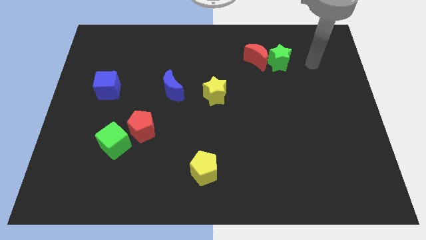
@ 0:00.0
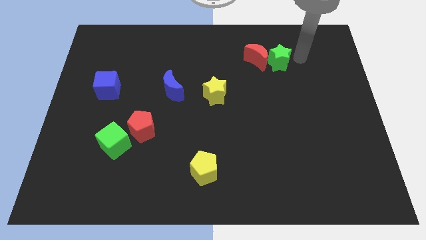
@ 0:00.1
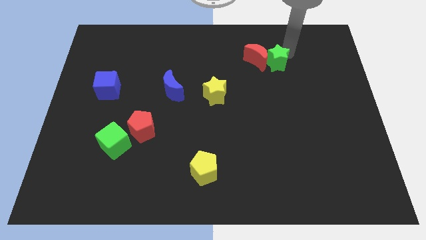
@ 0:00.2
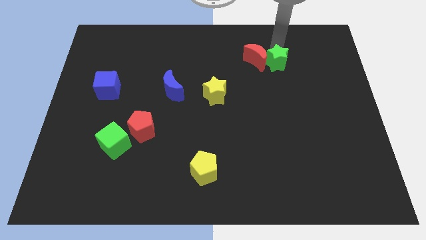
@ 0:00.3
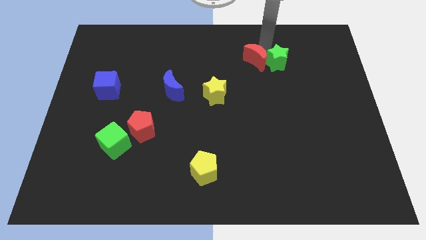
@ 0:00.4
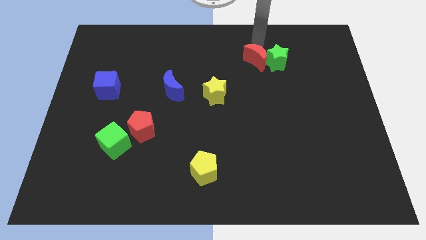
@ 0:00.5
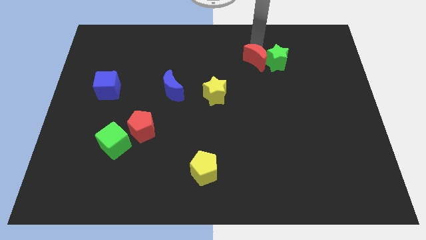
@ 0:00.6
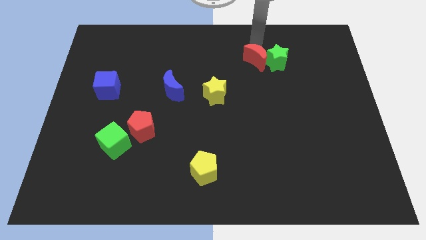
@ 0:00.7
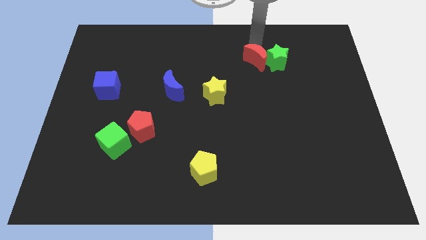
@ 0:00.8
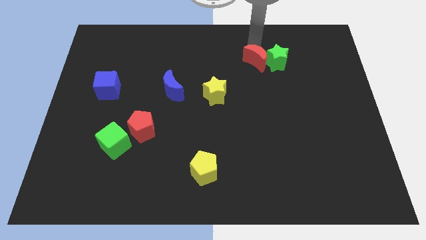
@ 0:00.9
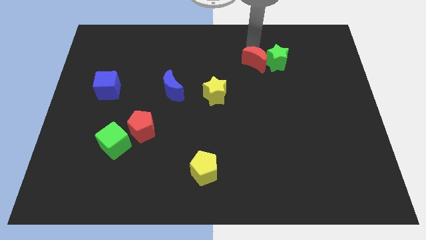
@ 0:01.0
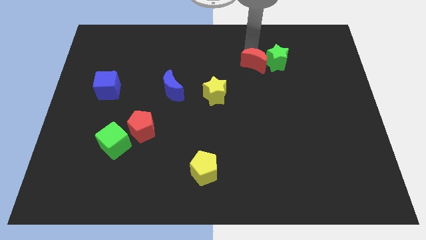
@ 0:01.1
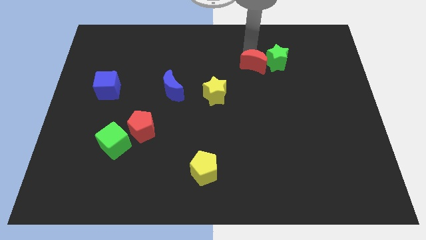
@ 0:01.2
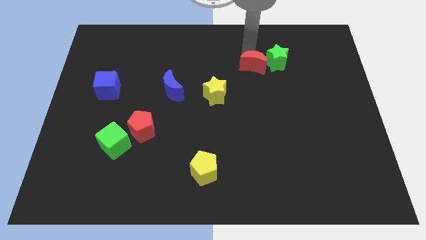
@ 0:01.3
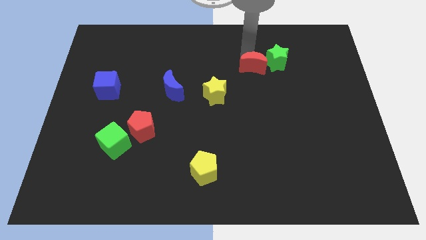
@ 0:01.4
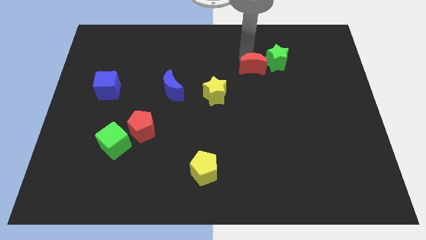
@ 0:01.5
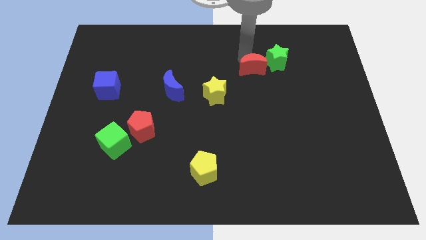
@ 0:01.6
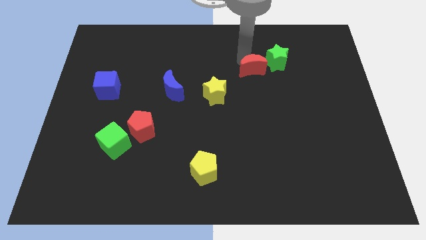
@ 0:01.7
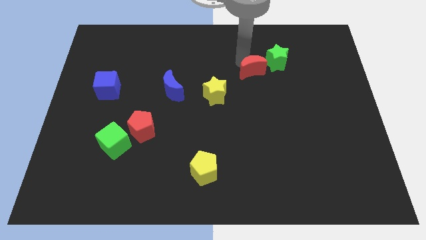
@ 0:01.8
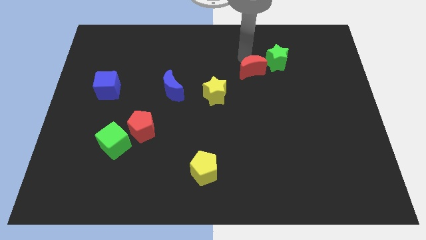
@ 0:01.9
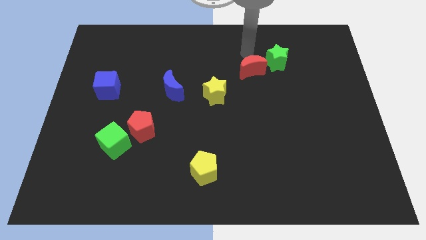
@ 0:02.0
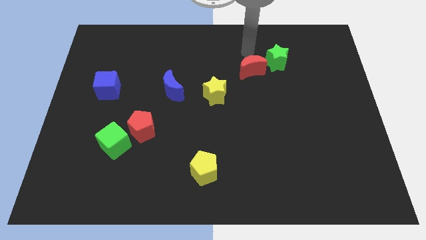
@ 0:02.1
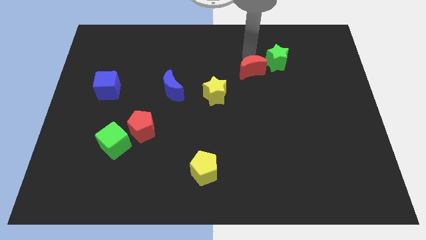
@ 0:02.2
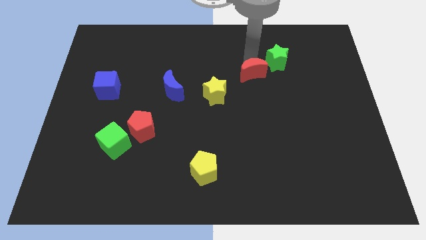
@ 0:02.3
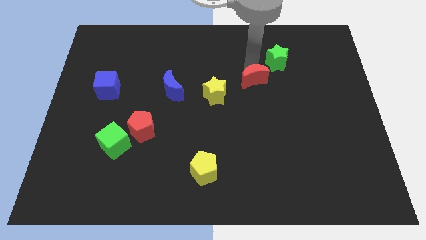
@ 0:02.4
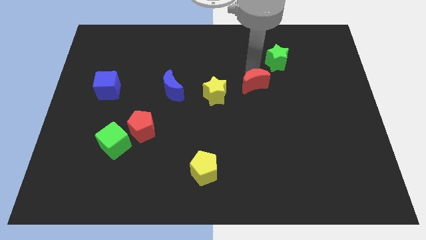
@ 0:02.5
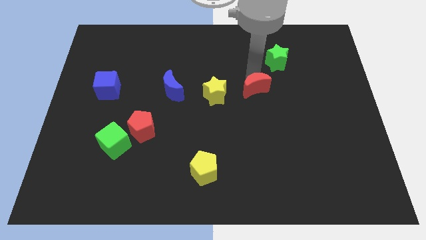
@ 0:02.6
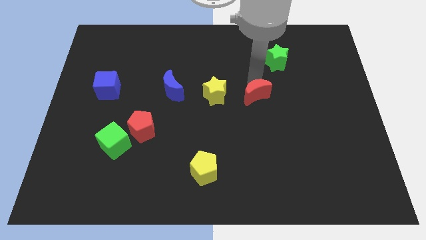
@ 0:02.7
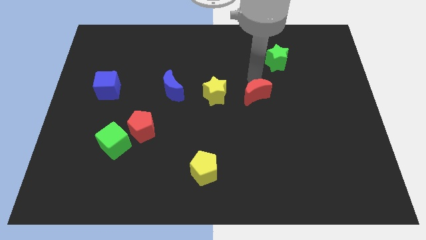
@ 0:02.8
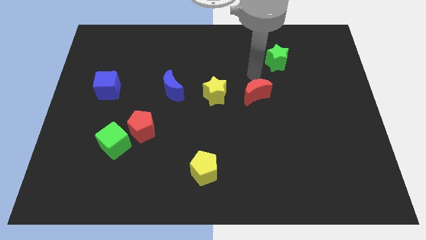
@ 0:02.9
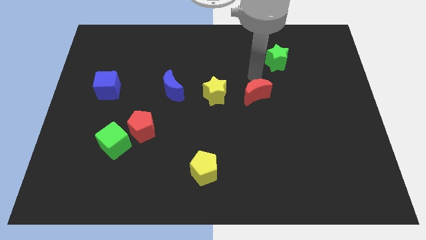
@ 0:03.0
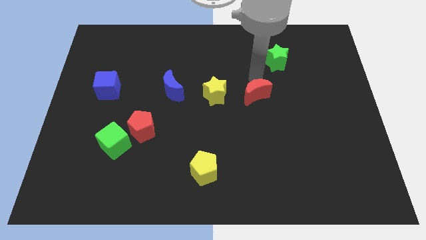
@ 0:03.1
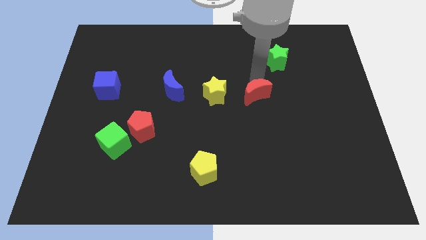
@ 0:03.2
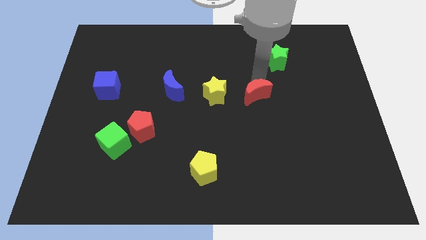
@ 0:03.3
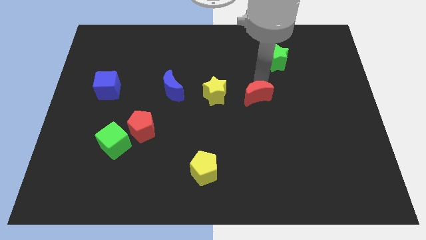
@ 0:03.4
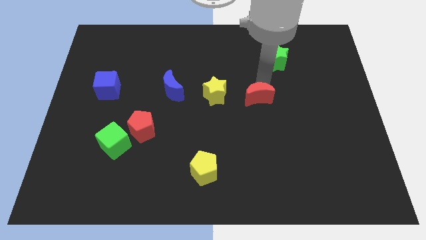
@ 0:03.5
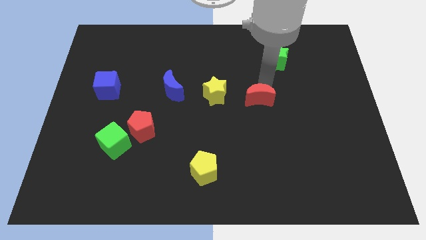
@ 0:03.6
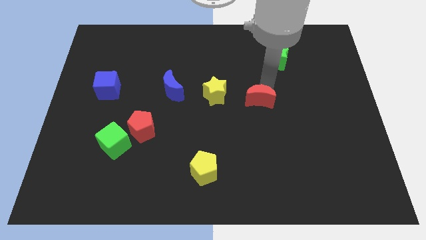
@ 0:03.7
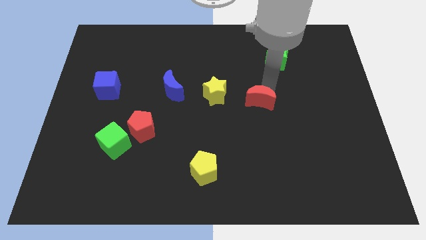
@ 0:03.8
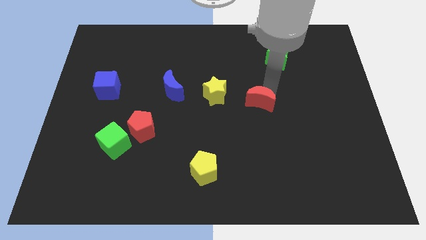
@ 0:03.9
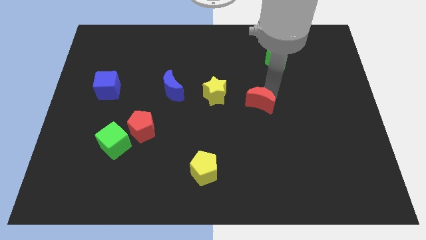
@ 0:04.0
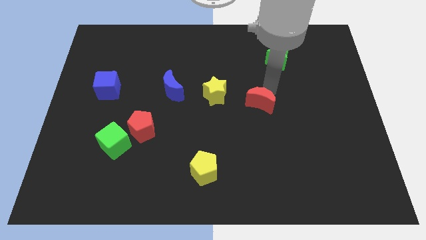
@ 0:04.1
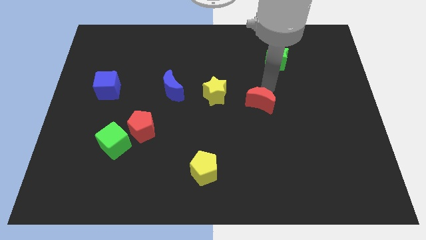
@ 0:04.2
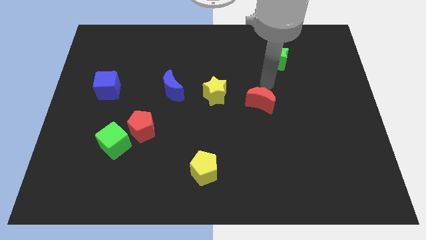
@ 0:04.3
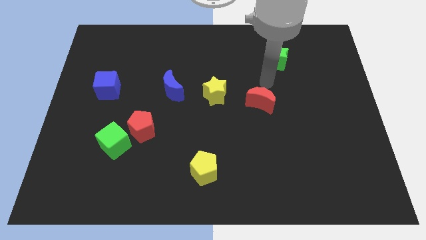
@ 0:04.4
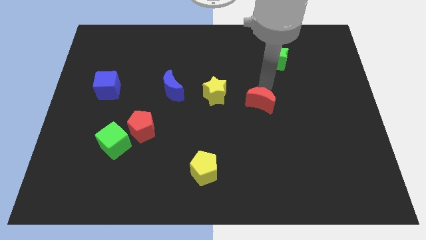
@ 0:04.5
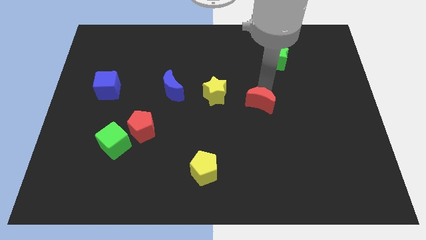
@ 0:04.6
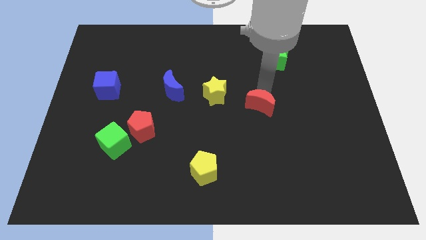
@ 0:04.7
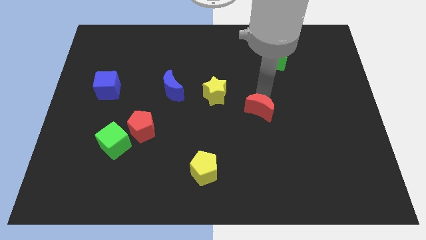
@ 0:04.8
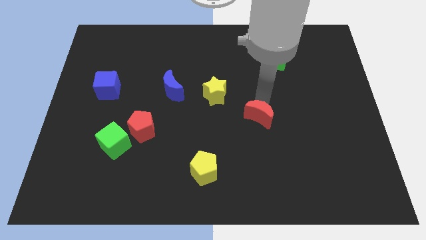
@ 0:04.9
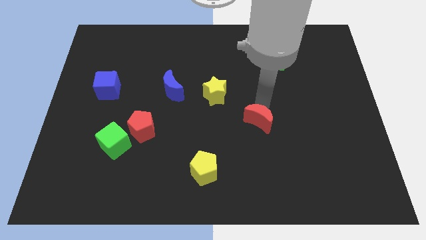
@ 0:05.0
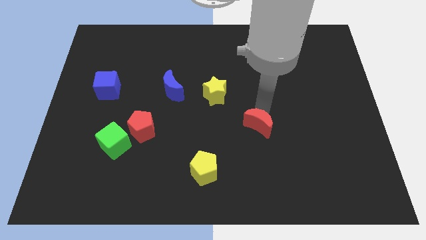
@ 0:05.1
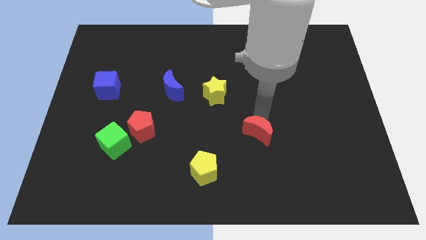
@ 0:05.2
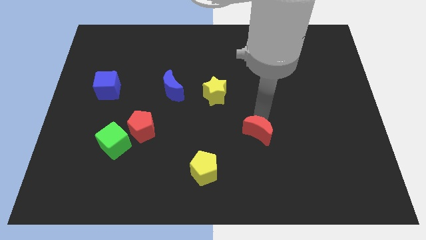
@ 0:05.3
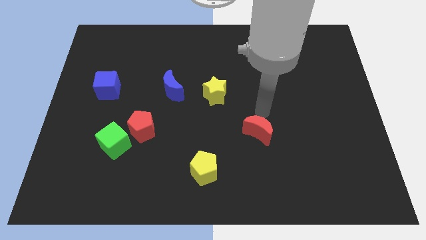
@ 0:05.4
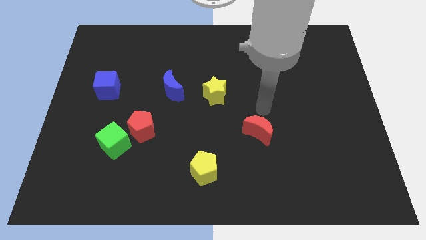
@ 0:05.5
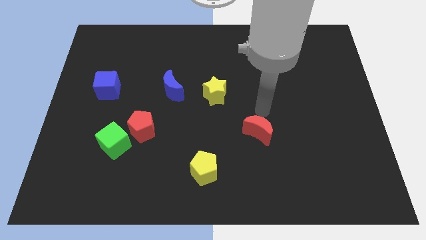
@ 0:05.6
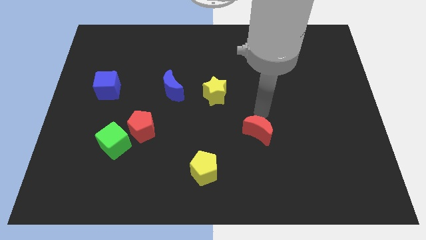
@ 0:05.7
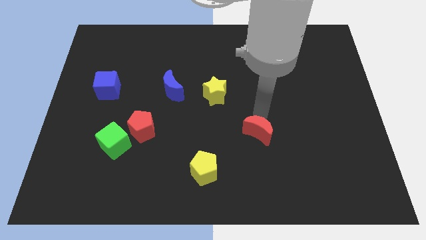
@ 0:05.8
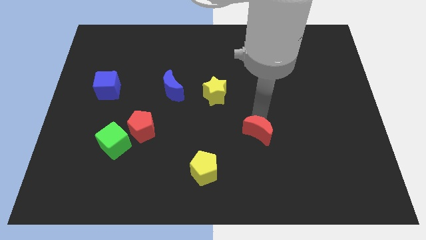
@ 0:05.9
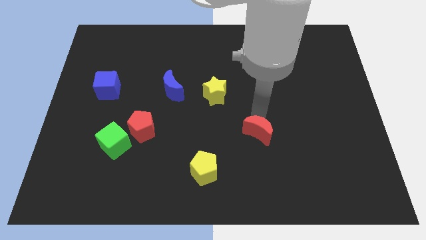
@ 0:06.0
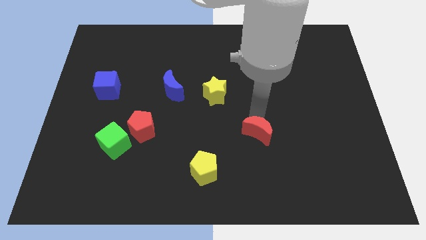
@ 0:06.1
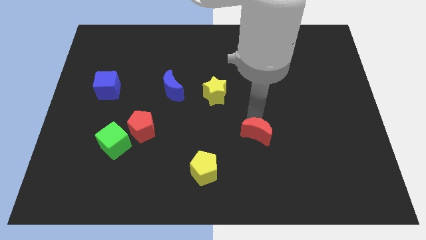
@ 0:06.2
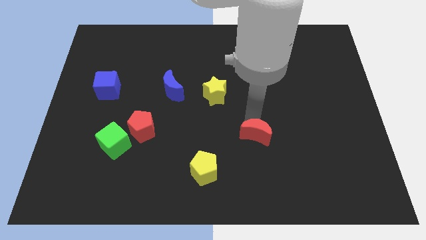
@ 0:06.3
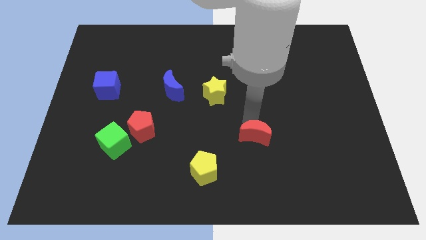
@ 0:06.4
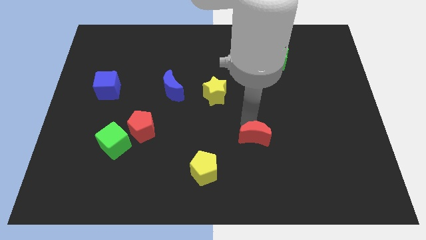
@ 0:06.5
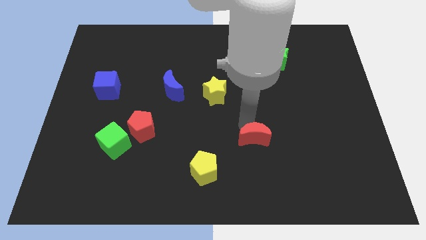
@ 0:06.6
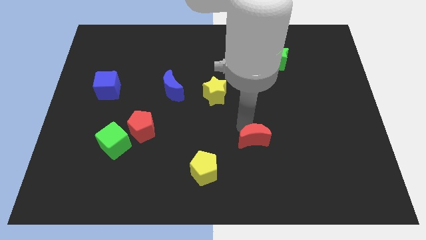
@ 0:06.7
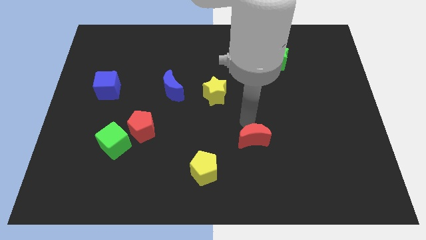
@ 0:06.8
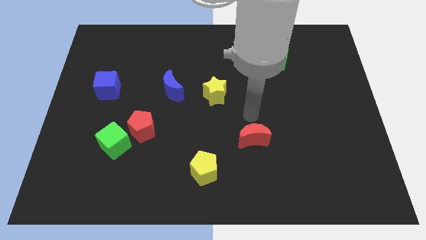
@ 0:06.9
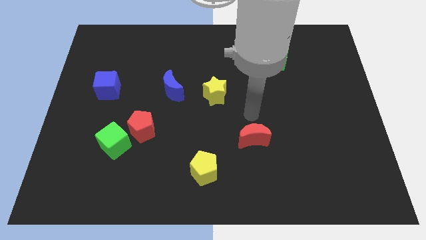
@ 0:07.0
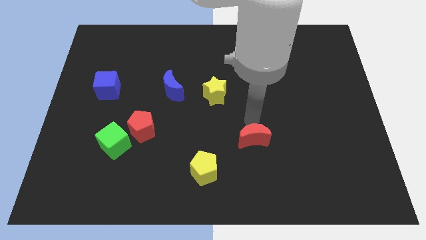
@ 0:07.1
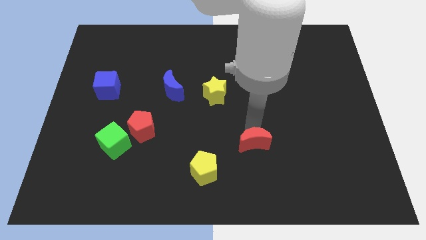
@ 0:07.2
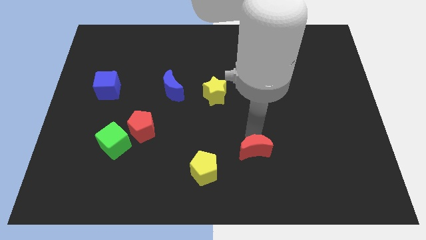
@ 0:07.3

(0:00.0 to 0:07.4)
push the red moon to the right of the yellow pentagon
